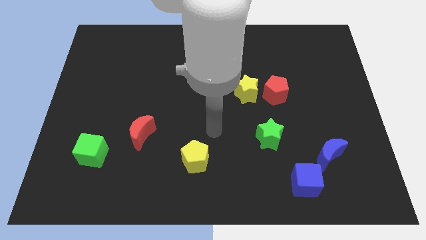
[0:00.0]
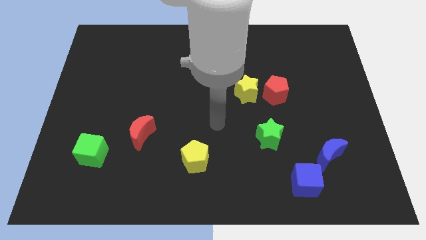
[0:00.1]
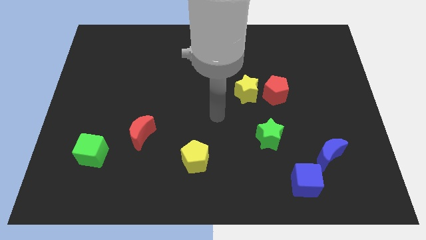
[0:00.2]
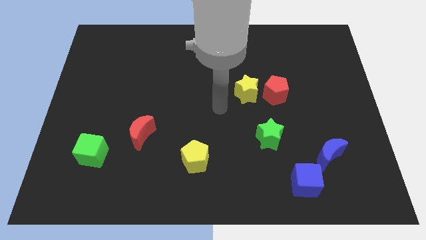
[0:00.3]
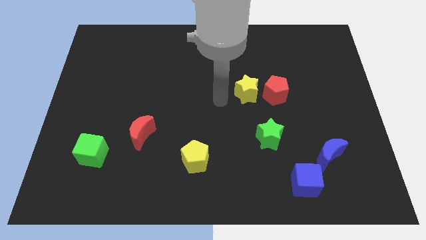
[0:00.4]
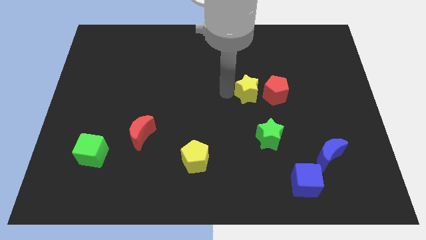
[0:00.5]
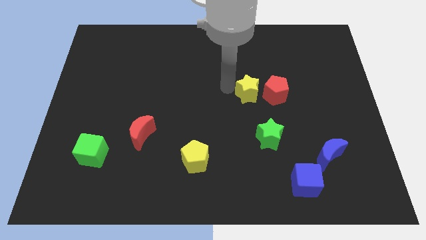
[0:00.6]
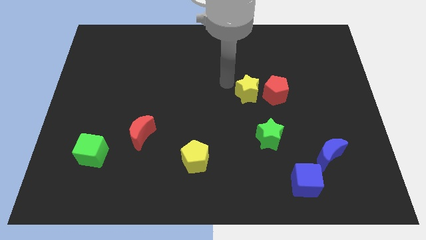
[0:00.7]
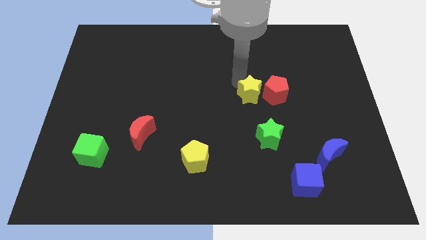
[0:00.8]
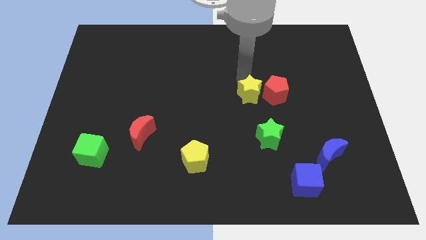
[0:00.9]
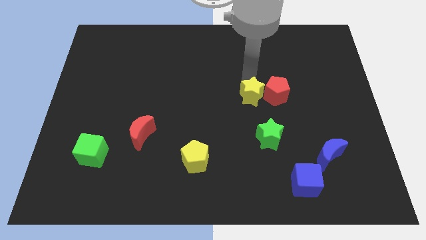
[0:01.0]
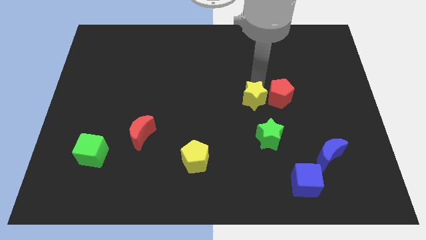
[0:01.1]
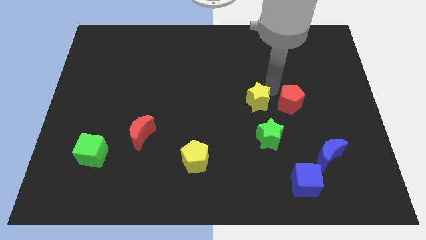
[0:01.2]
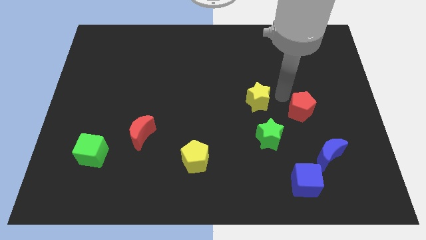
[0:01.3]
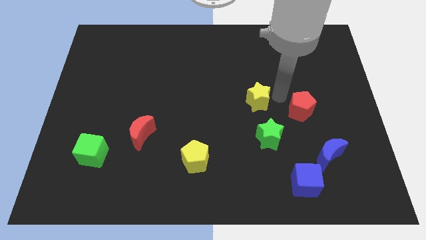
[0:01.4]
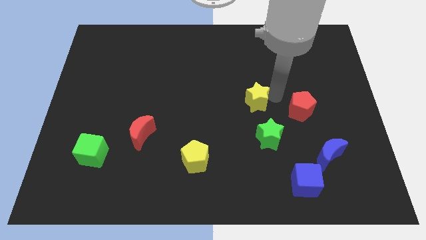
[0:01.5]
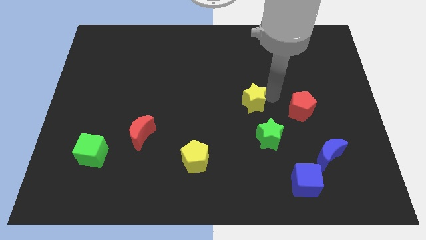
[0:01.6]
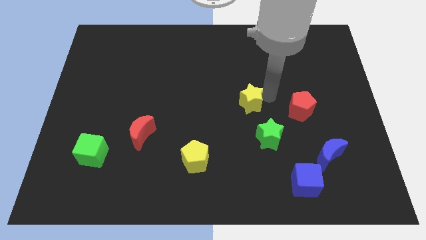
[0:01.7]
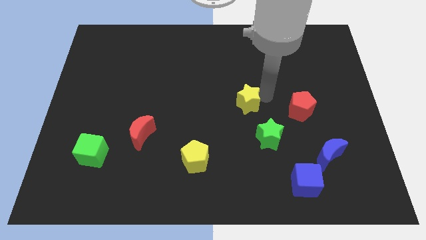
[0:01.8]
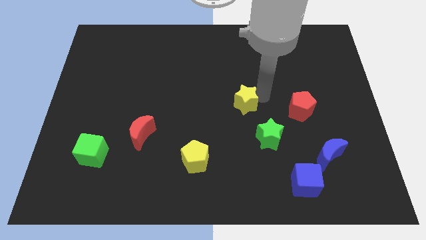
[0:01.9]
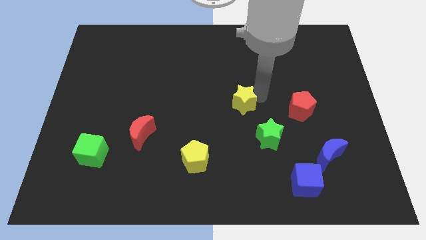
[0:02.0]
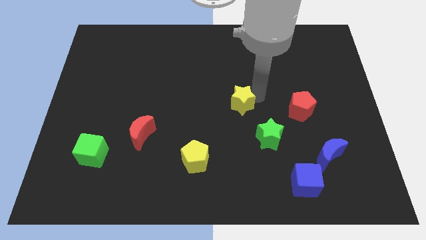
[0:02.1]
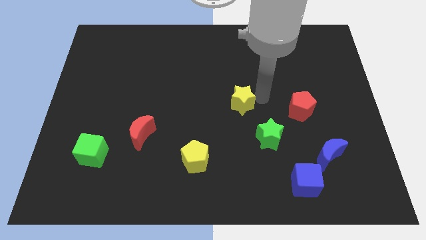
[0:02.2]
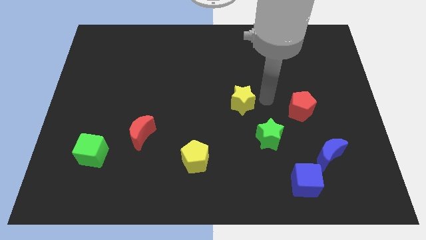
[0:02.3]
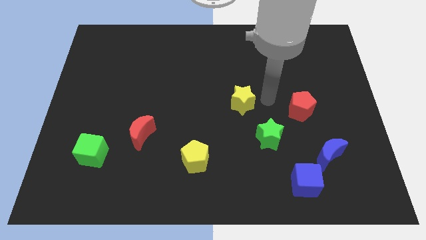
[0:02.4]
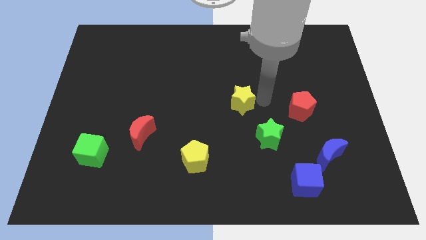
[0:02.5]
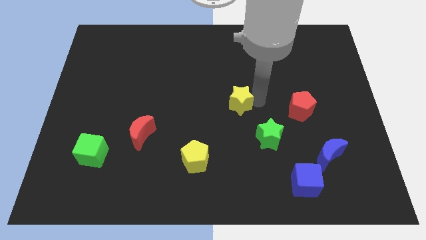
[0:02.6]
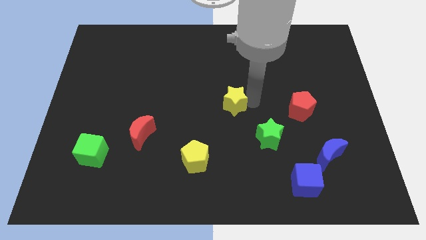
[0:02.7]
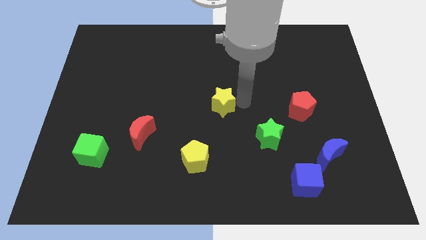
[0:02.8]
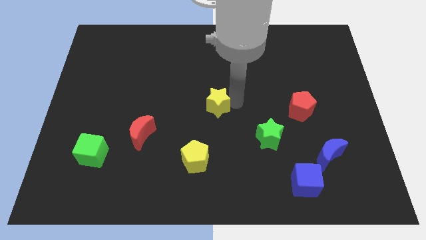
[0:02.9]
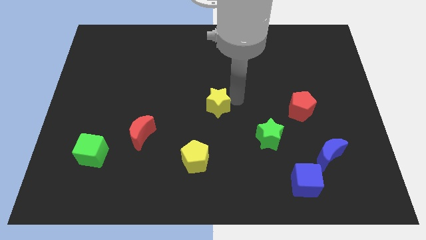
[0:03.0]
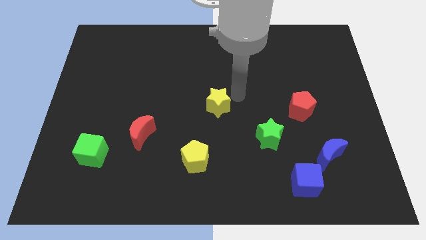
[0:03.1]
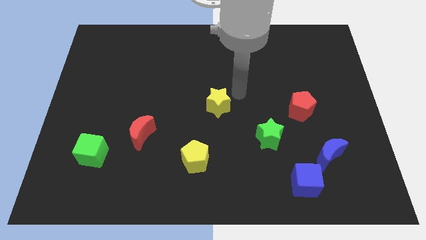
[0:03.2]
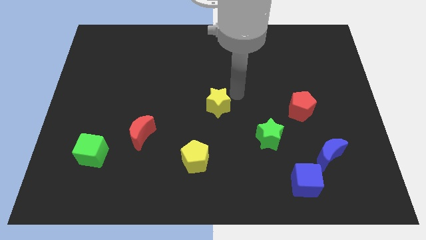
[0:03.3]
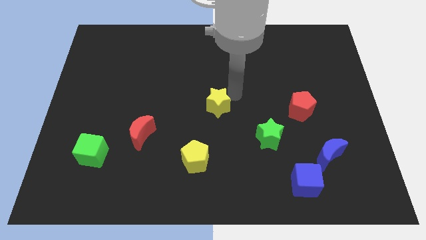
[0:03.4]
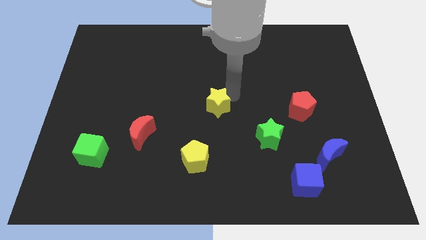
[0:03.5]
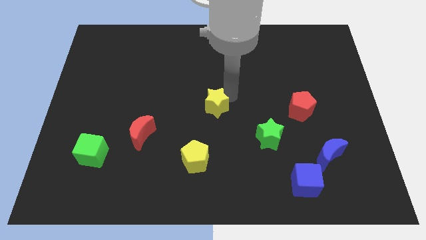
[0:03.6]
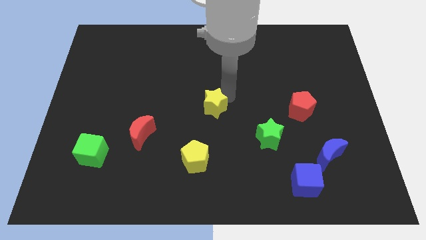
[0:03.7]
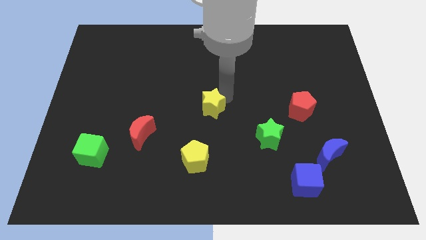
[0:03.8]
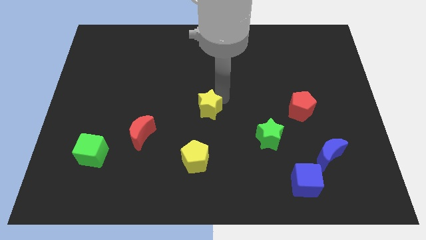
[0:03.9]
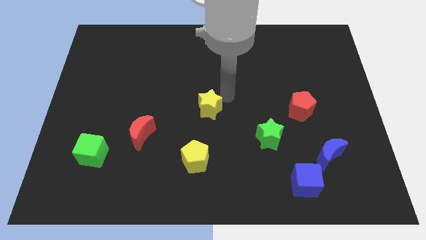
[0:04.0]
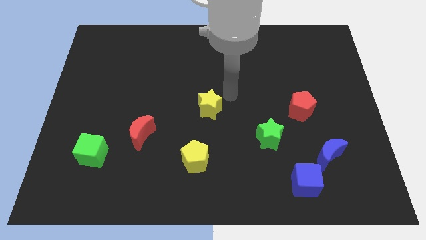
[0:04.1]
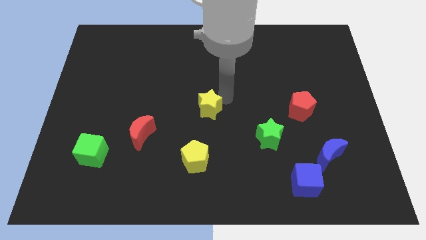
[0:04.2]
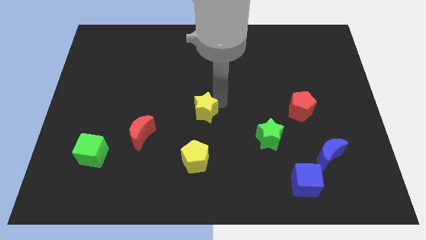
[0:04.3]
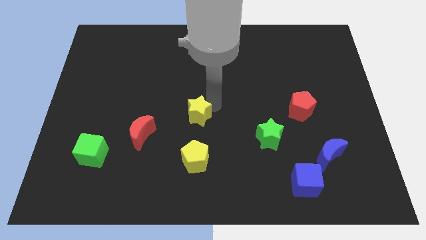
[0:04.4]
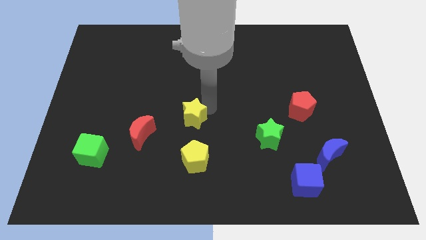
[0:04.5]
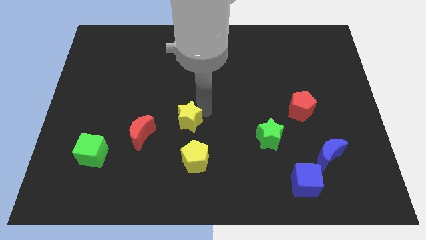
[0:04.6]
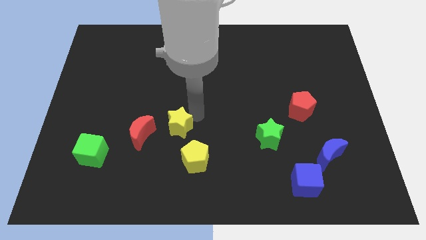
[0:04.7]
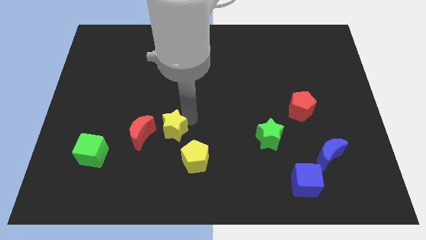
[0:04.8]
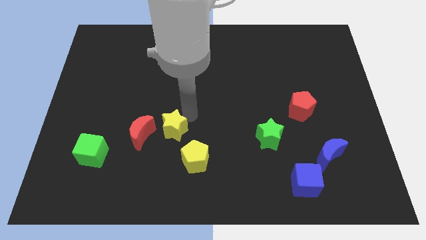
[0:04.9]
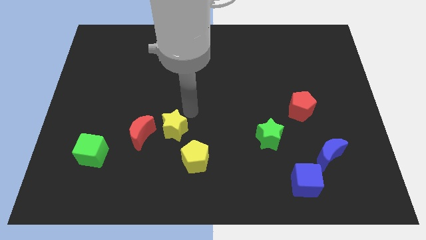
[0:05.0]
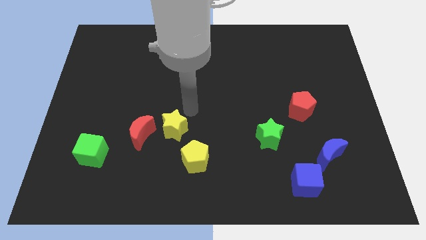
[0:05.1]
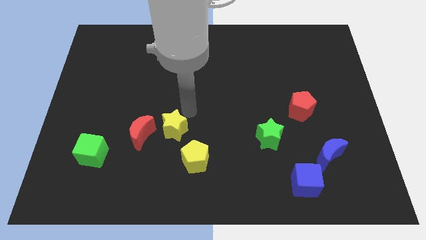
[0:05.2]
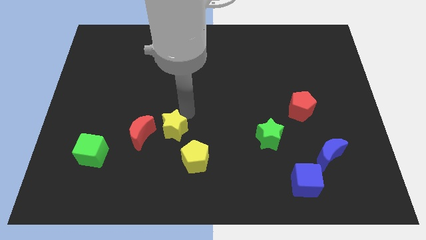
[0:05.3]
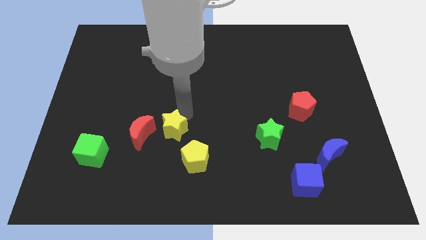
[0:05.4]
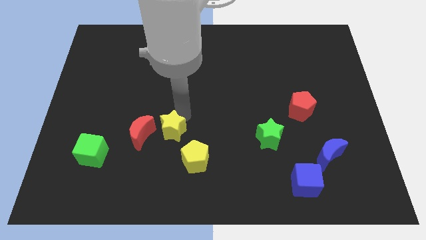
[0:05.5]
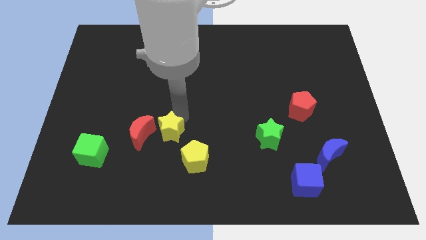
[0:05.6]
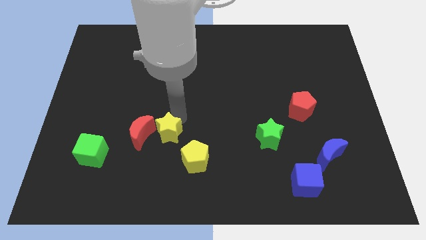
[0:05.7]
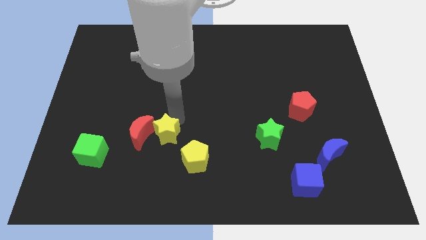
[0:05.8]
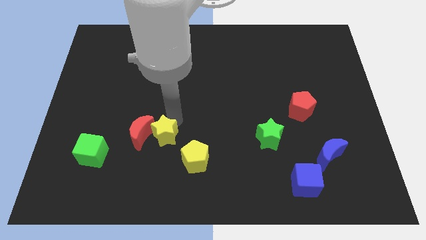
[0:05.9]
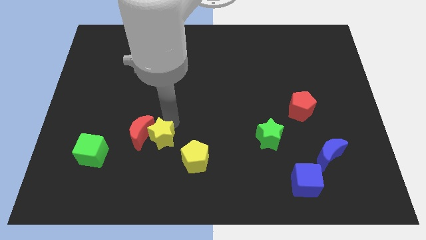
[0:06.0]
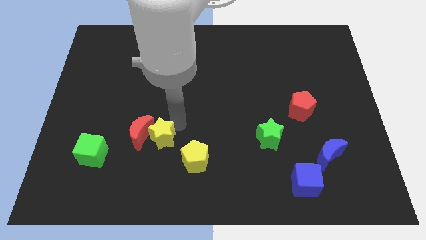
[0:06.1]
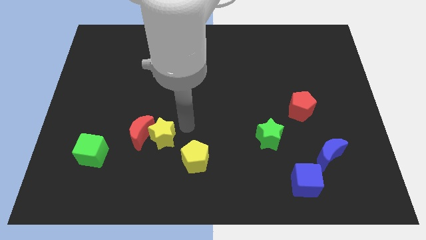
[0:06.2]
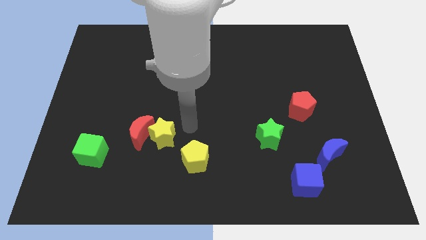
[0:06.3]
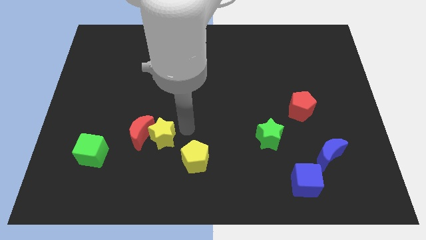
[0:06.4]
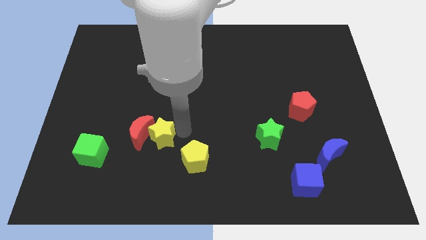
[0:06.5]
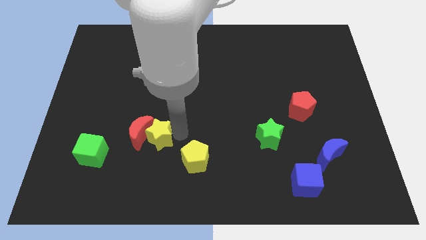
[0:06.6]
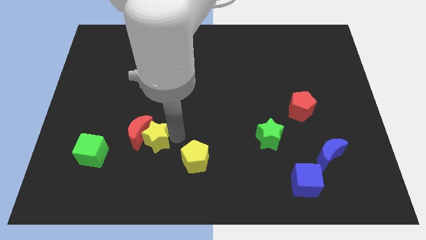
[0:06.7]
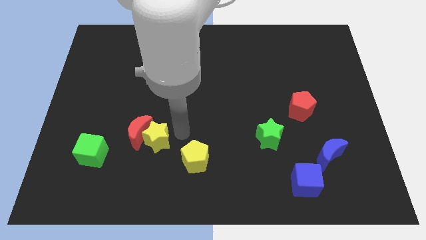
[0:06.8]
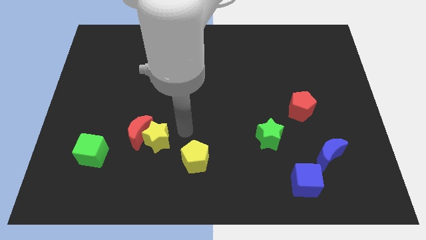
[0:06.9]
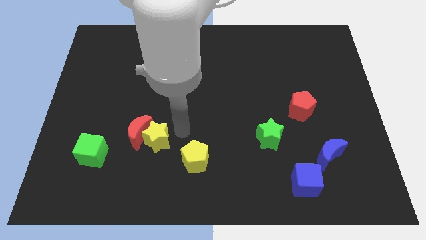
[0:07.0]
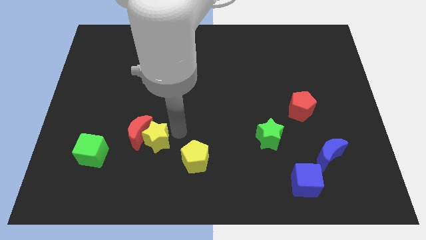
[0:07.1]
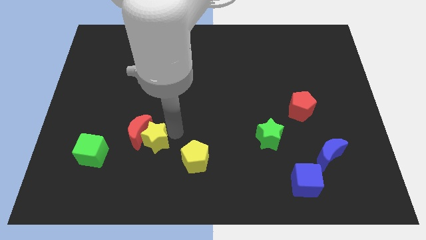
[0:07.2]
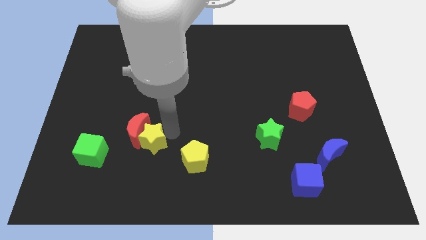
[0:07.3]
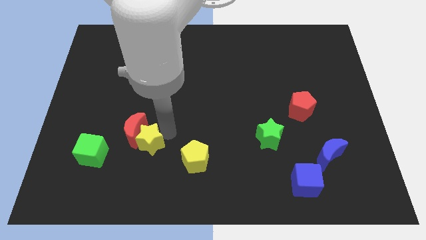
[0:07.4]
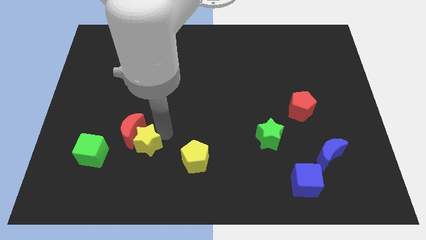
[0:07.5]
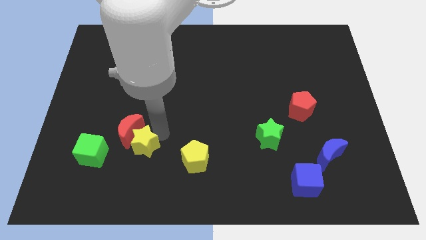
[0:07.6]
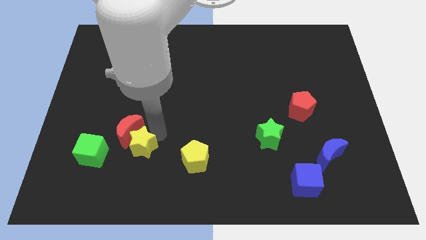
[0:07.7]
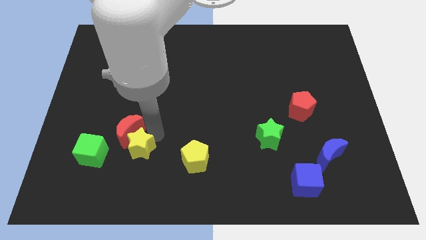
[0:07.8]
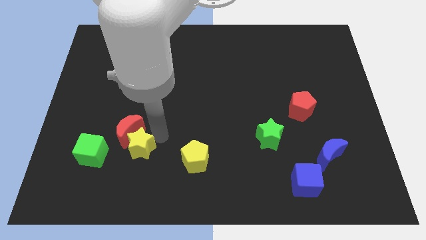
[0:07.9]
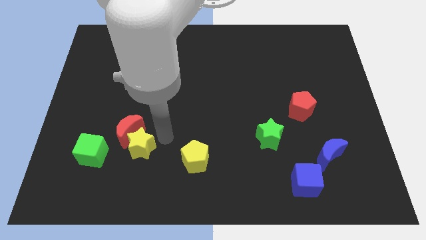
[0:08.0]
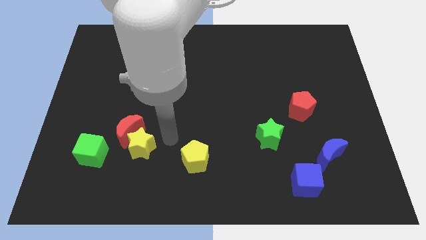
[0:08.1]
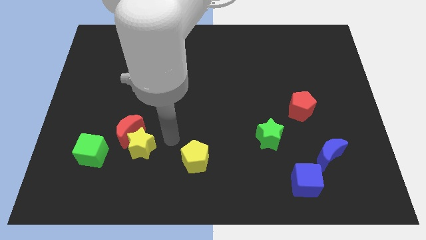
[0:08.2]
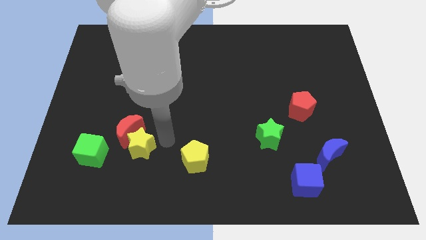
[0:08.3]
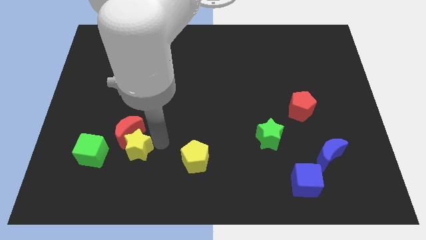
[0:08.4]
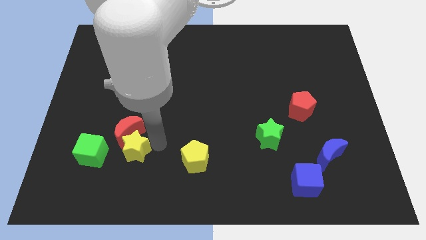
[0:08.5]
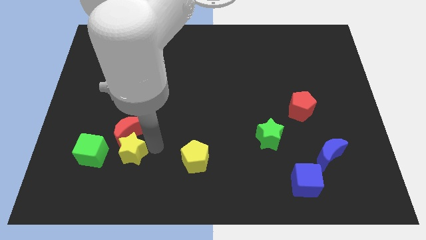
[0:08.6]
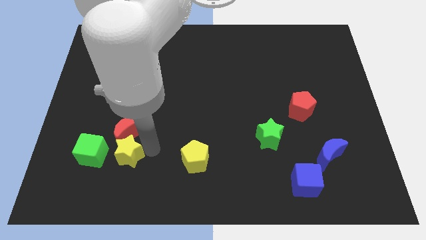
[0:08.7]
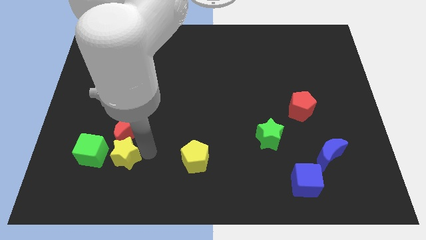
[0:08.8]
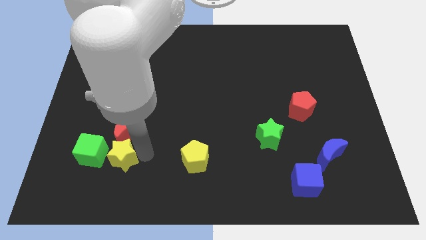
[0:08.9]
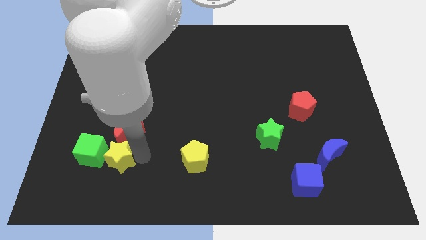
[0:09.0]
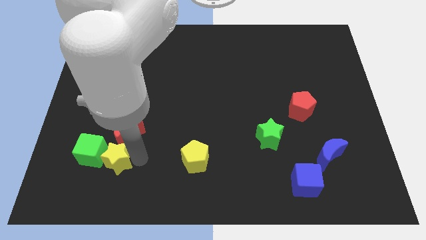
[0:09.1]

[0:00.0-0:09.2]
slide the yellow star close to the green cube
